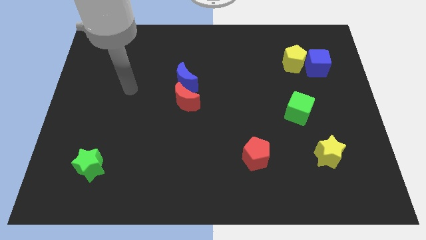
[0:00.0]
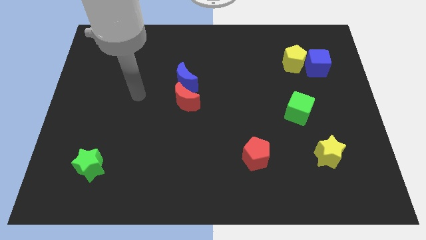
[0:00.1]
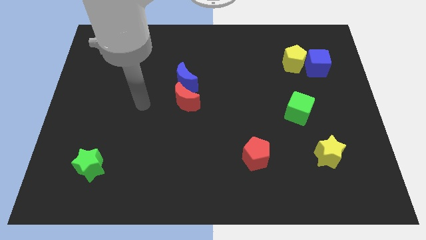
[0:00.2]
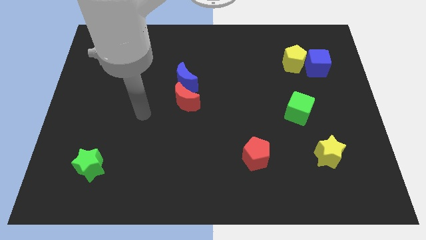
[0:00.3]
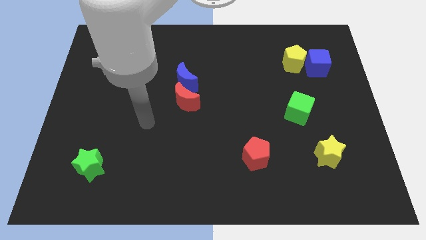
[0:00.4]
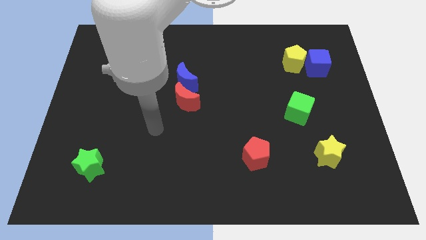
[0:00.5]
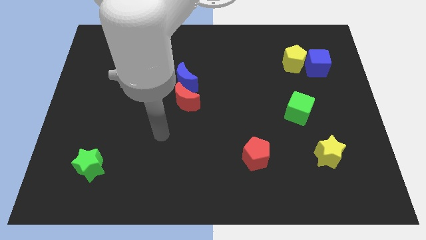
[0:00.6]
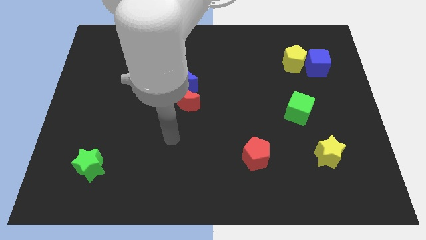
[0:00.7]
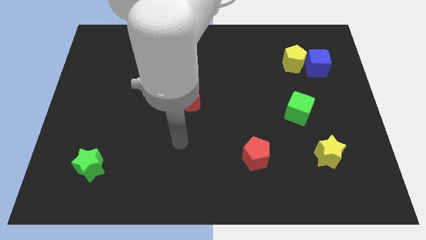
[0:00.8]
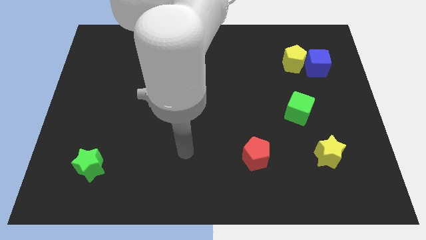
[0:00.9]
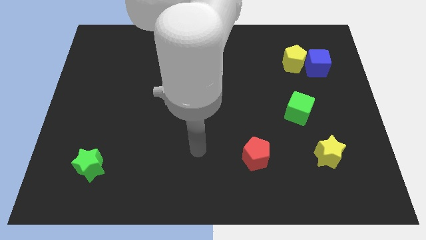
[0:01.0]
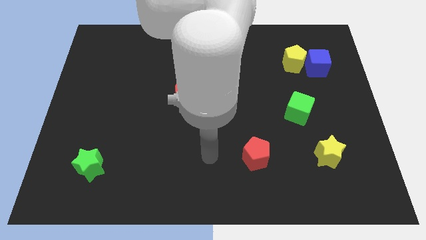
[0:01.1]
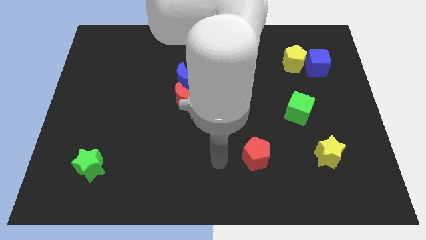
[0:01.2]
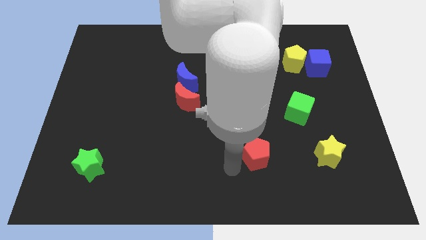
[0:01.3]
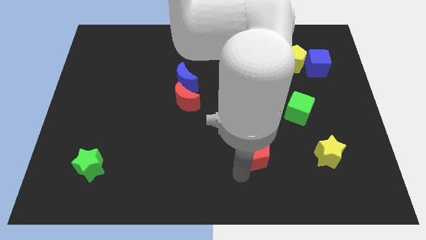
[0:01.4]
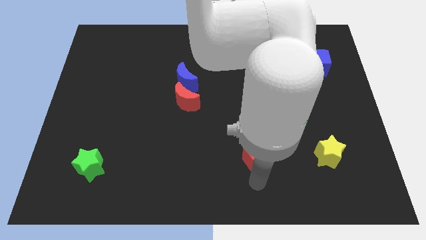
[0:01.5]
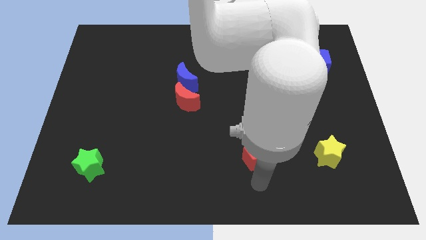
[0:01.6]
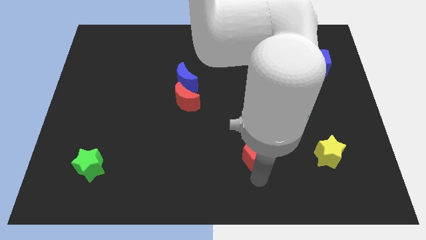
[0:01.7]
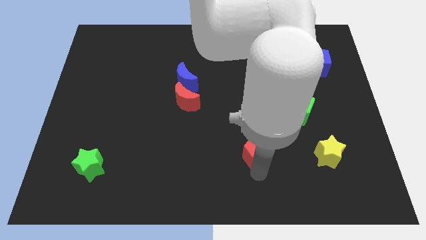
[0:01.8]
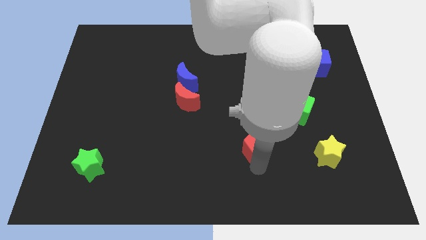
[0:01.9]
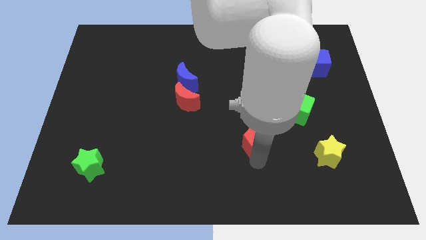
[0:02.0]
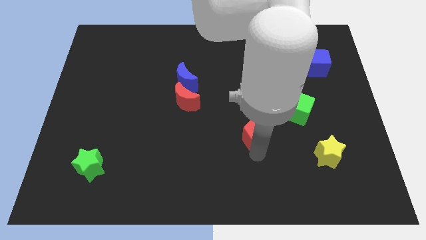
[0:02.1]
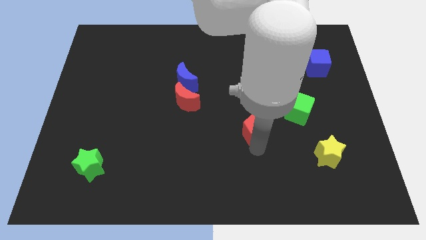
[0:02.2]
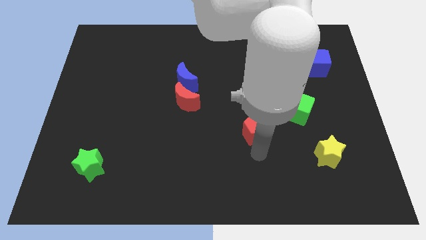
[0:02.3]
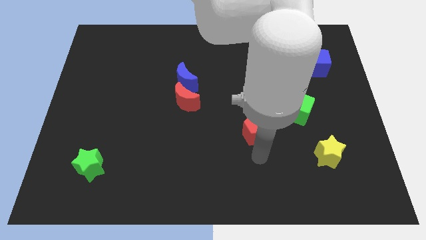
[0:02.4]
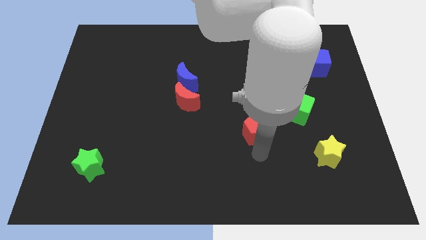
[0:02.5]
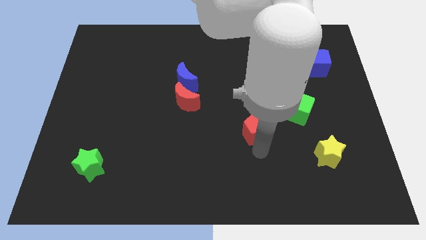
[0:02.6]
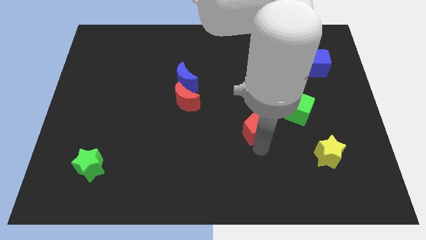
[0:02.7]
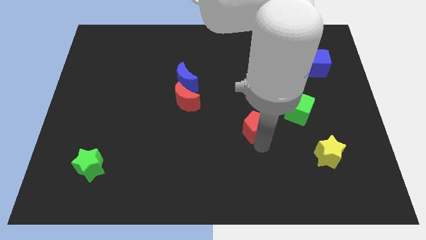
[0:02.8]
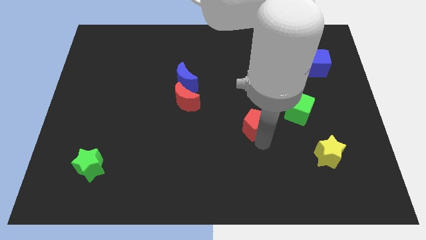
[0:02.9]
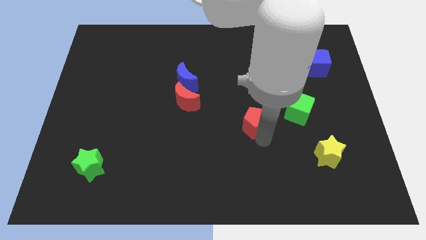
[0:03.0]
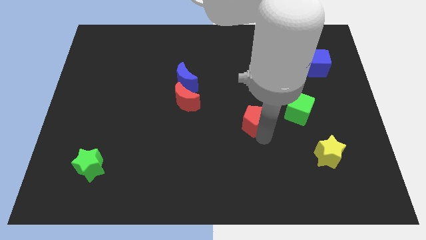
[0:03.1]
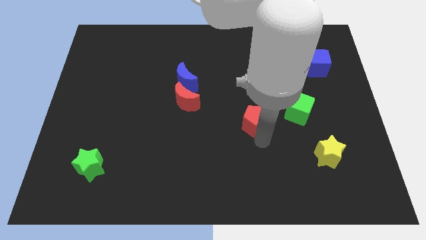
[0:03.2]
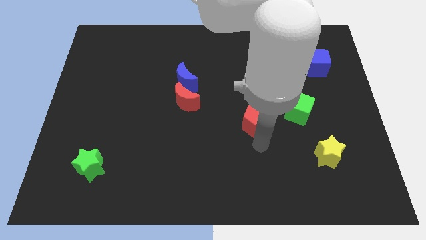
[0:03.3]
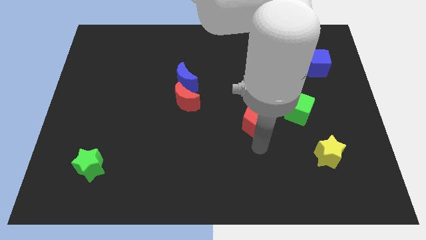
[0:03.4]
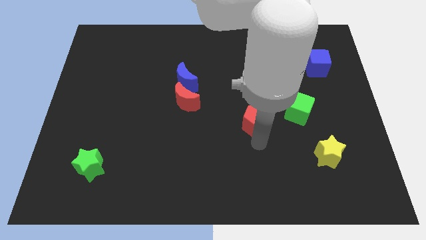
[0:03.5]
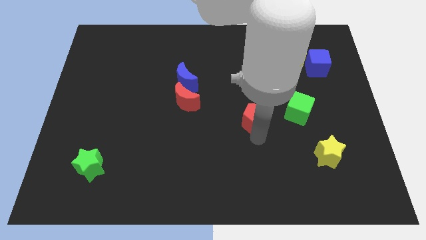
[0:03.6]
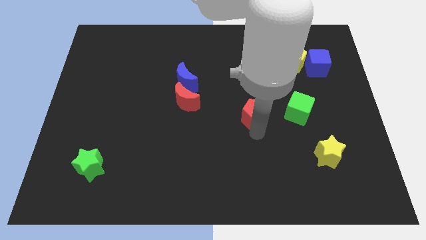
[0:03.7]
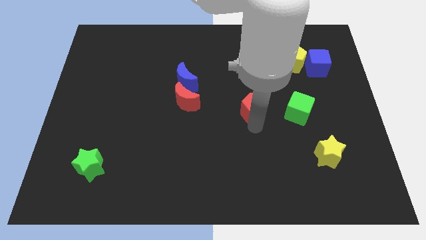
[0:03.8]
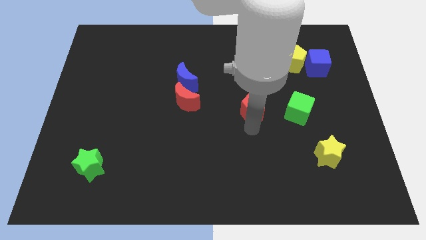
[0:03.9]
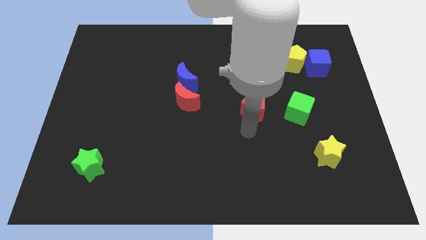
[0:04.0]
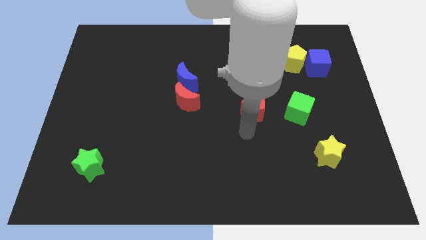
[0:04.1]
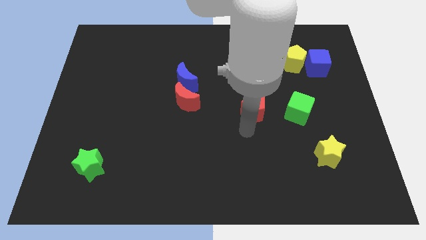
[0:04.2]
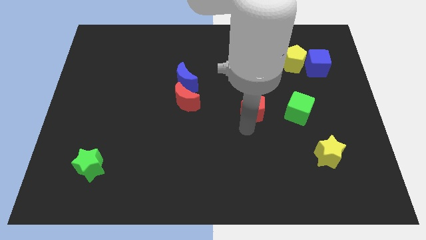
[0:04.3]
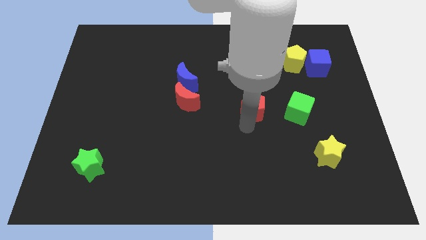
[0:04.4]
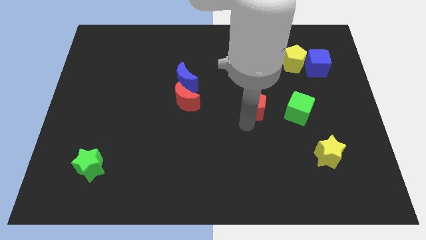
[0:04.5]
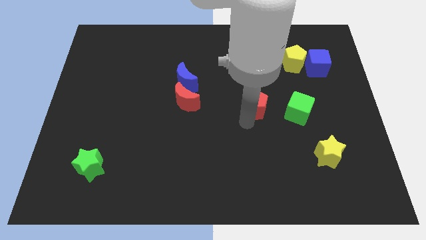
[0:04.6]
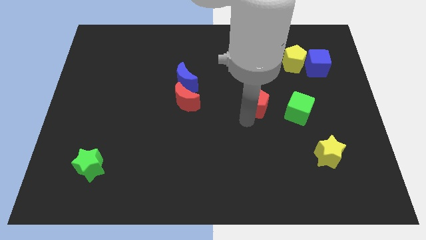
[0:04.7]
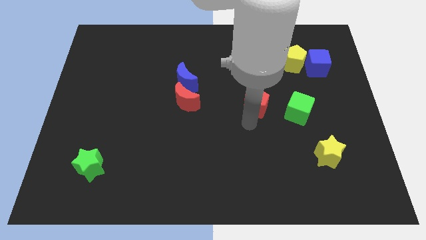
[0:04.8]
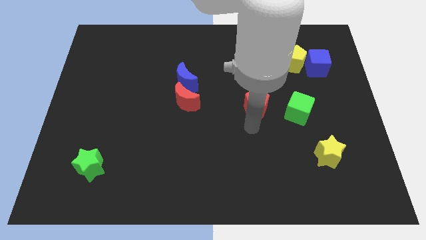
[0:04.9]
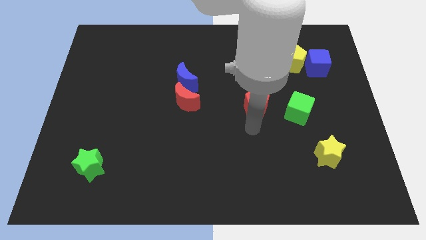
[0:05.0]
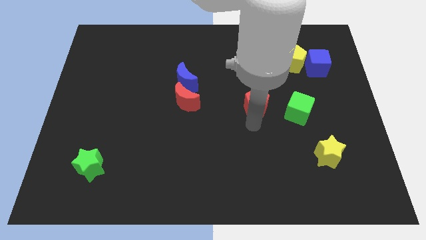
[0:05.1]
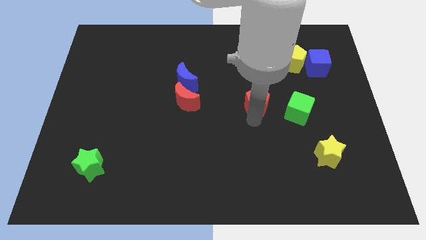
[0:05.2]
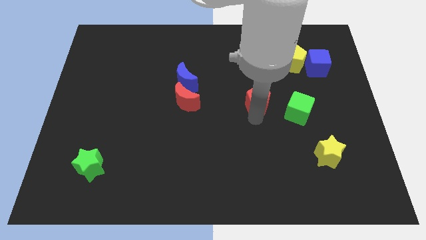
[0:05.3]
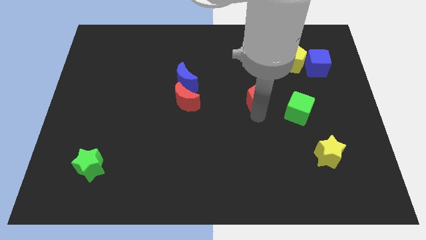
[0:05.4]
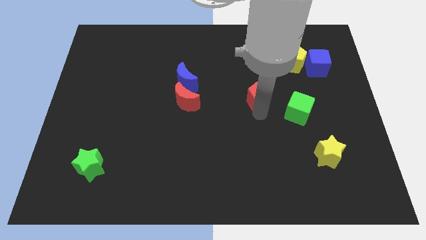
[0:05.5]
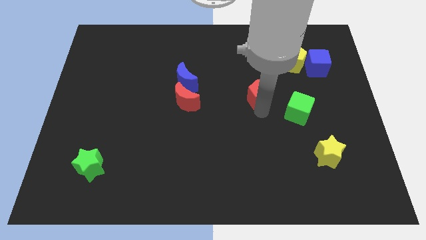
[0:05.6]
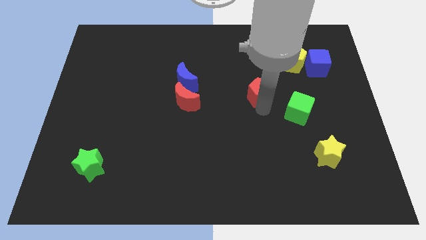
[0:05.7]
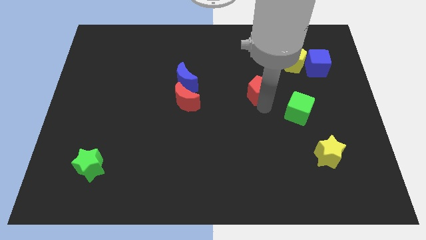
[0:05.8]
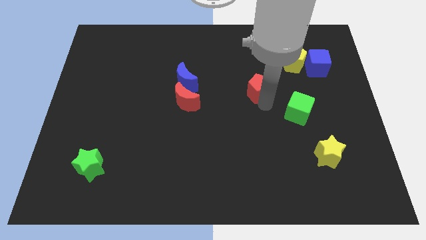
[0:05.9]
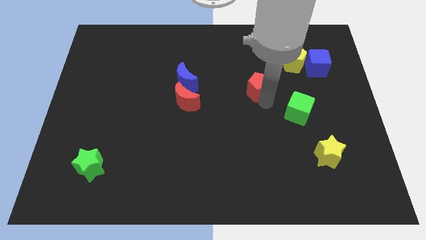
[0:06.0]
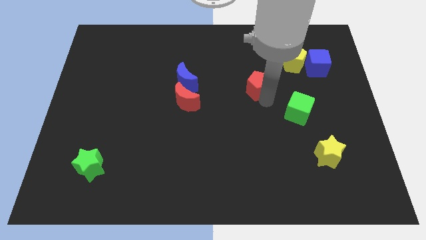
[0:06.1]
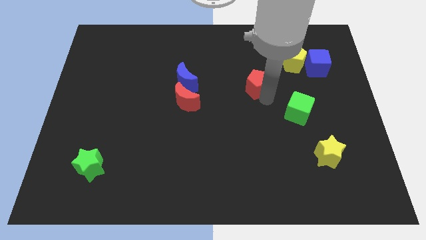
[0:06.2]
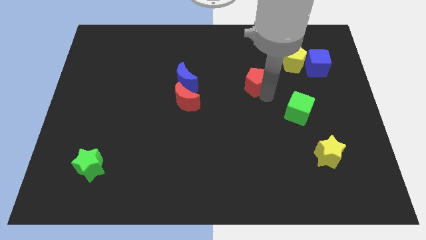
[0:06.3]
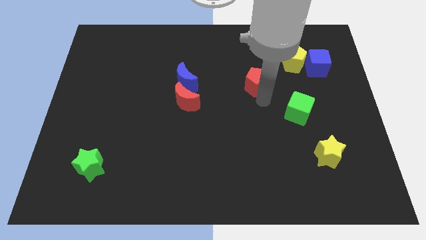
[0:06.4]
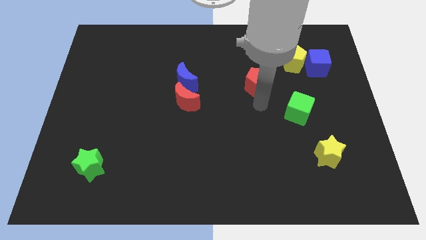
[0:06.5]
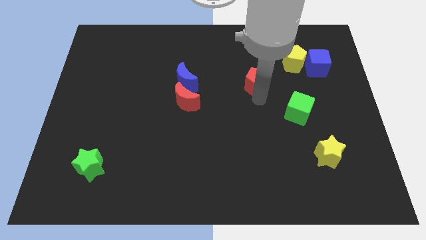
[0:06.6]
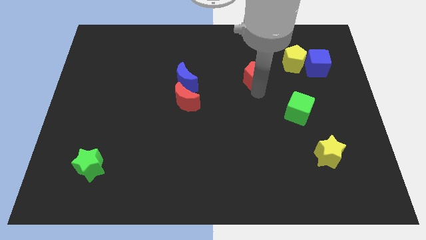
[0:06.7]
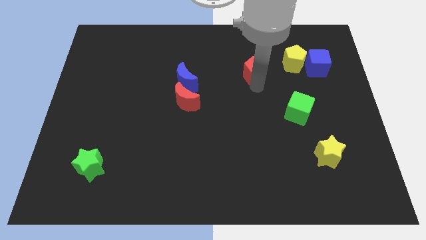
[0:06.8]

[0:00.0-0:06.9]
push the red pentagon to the left of the yellow pentagon
